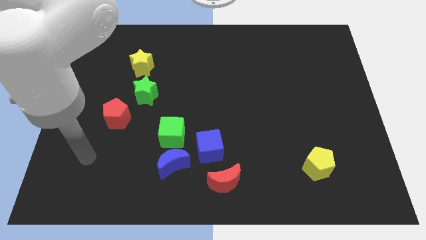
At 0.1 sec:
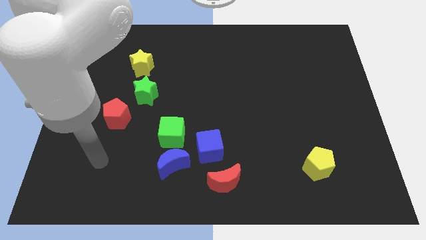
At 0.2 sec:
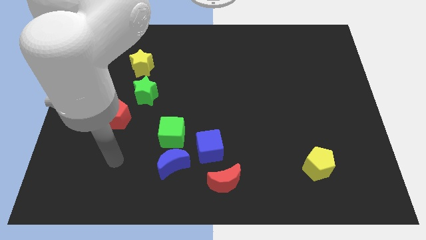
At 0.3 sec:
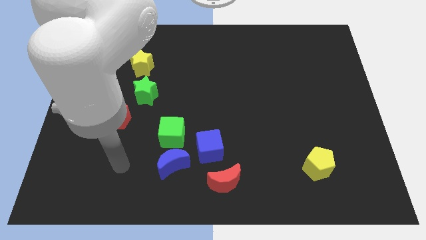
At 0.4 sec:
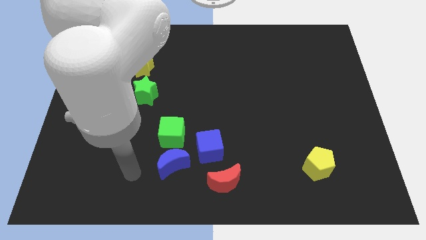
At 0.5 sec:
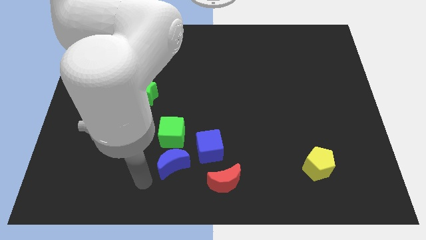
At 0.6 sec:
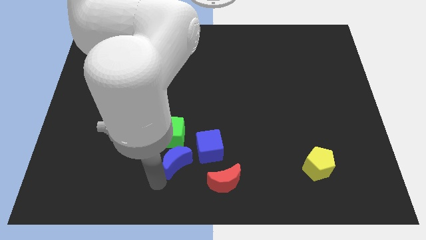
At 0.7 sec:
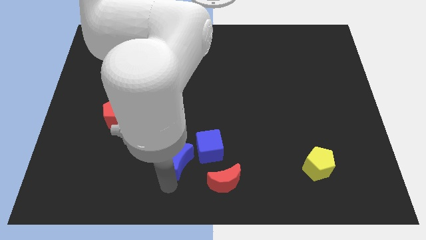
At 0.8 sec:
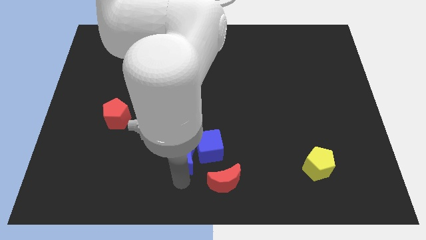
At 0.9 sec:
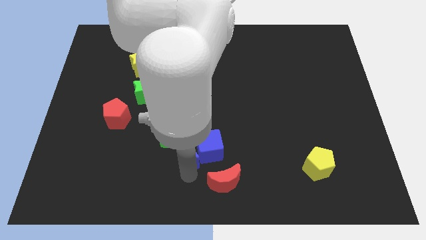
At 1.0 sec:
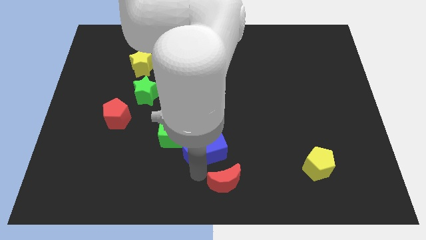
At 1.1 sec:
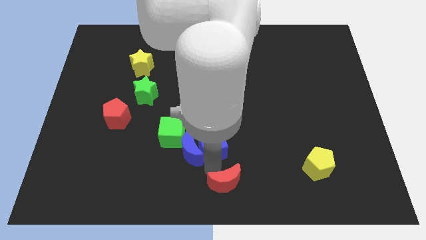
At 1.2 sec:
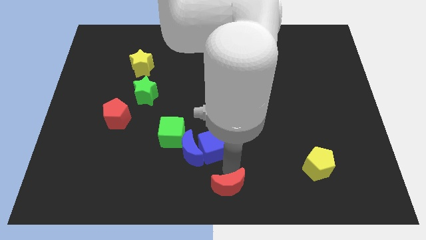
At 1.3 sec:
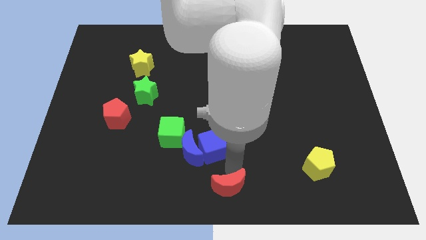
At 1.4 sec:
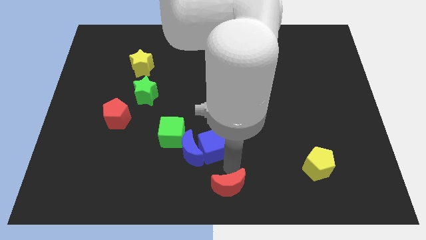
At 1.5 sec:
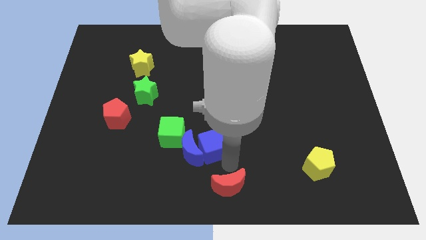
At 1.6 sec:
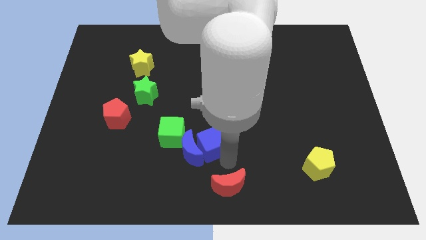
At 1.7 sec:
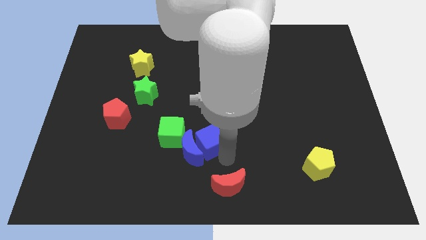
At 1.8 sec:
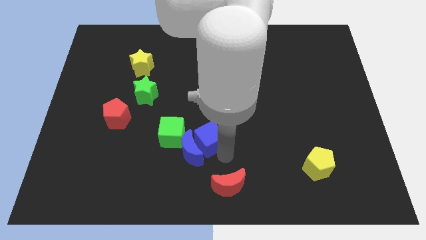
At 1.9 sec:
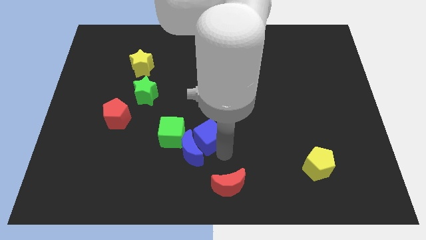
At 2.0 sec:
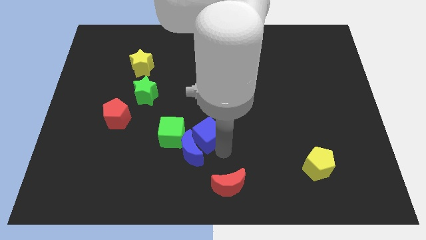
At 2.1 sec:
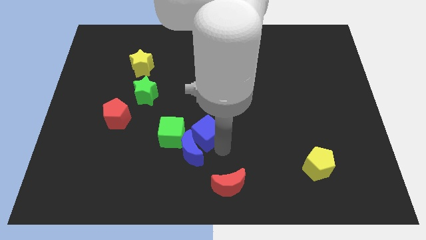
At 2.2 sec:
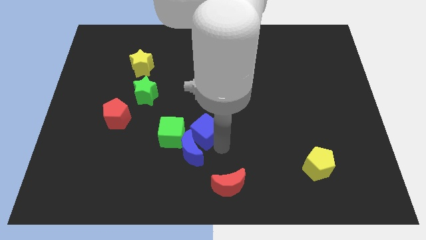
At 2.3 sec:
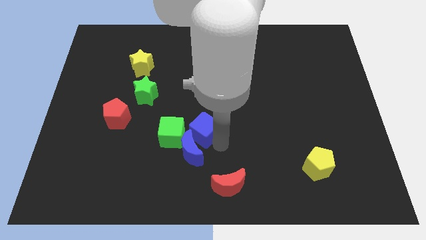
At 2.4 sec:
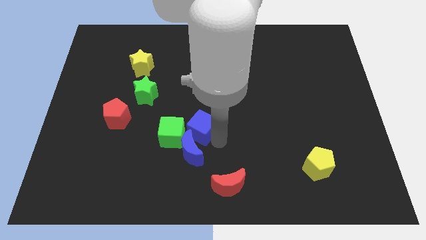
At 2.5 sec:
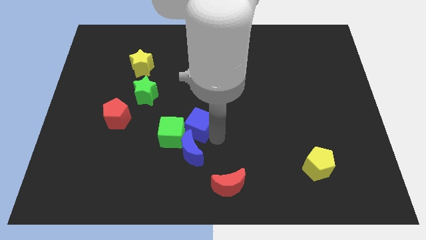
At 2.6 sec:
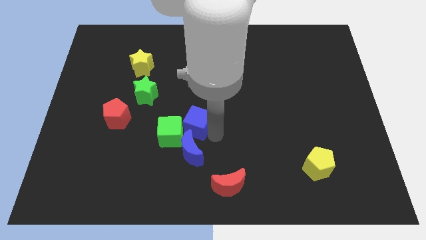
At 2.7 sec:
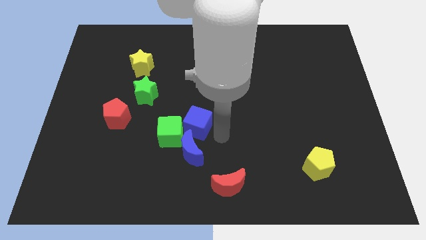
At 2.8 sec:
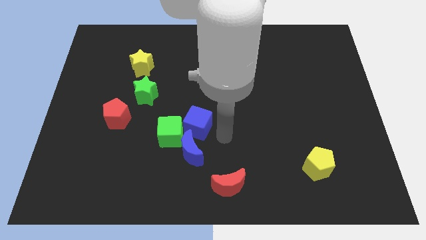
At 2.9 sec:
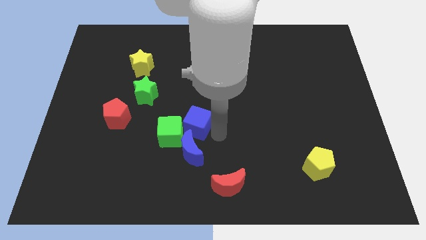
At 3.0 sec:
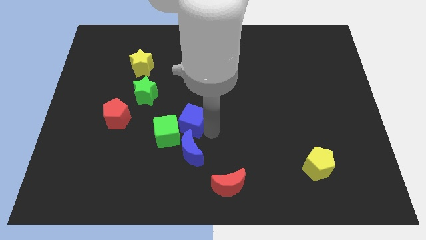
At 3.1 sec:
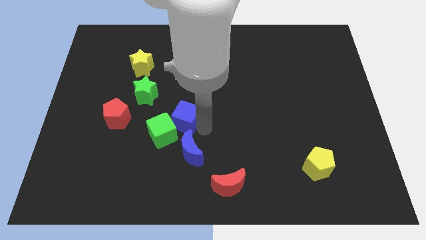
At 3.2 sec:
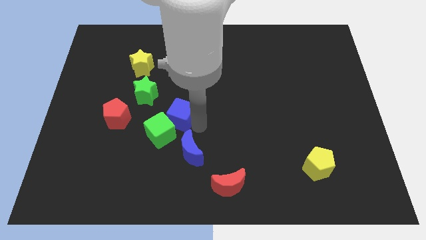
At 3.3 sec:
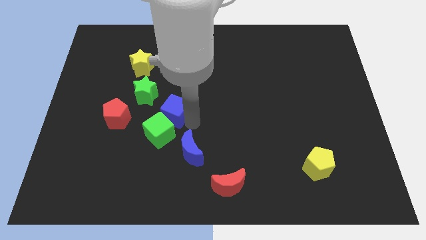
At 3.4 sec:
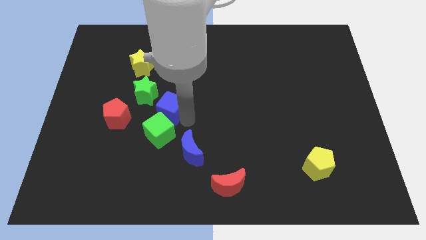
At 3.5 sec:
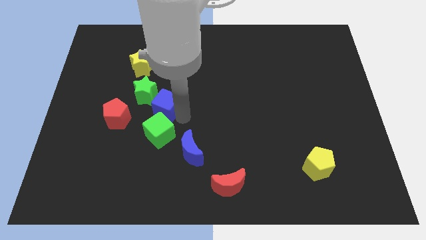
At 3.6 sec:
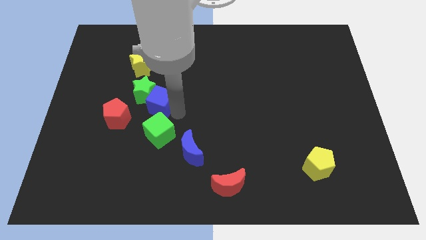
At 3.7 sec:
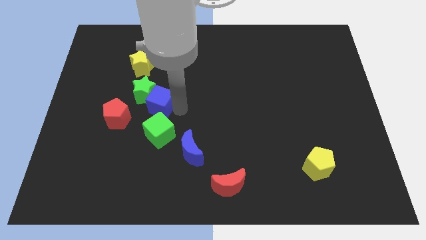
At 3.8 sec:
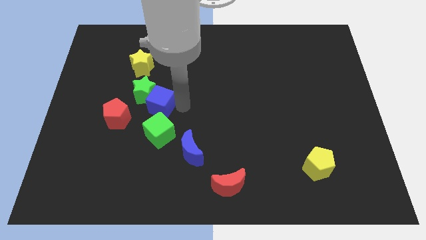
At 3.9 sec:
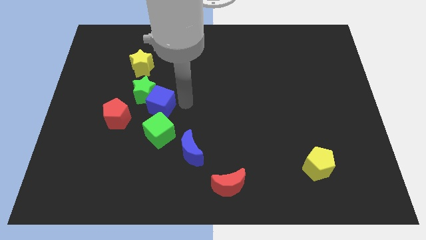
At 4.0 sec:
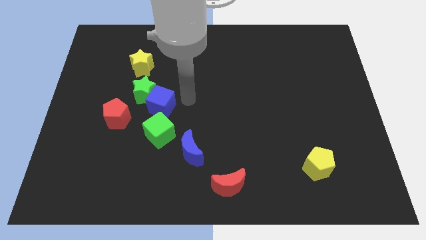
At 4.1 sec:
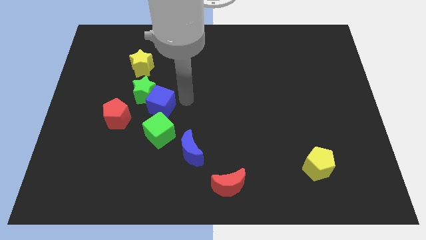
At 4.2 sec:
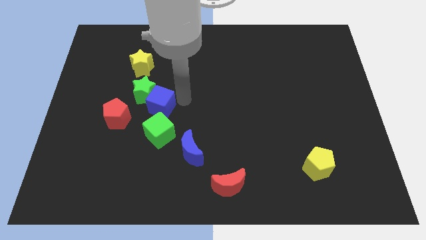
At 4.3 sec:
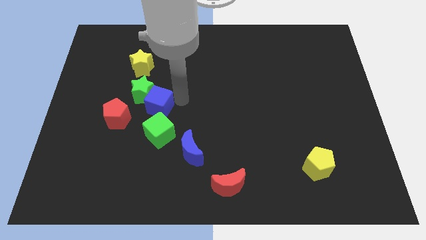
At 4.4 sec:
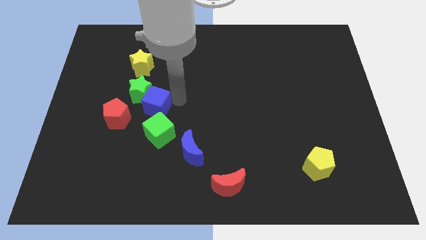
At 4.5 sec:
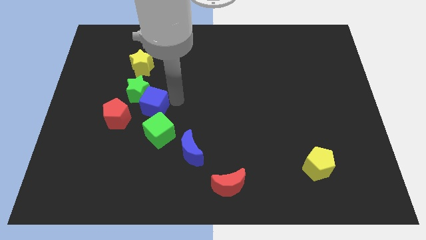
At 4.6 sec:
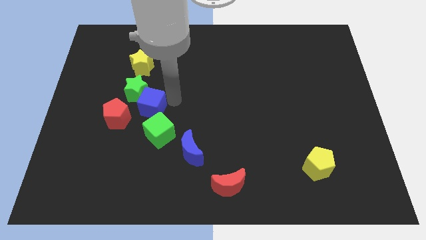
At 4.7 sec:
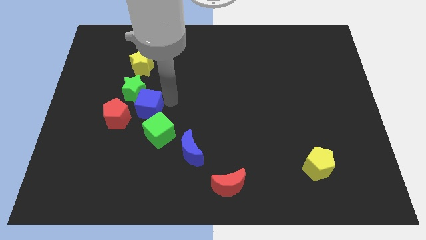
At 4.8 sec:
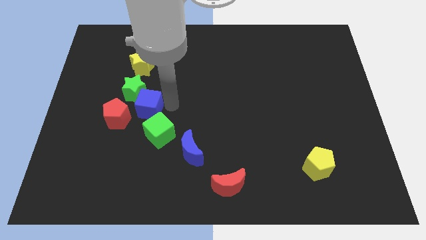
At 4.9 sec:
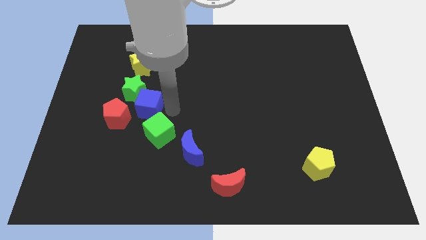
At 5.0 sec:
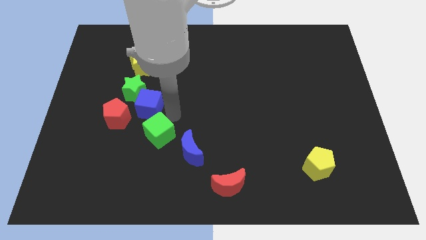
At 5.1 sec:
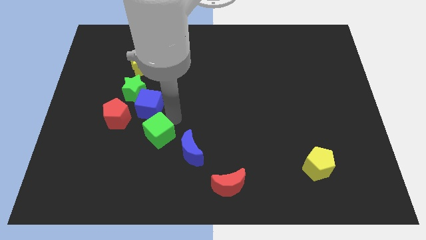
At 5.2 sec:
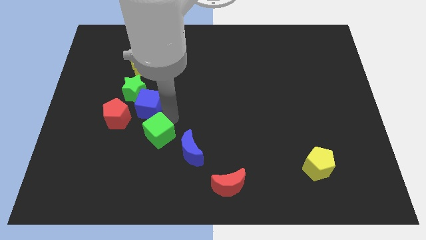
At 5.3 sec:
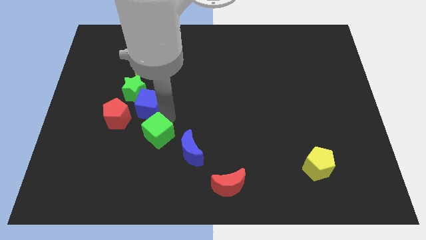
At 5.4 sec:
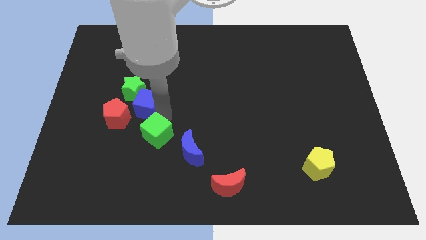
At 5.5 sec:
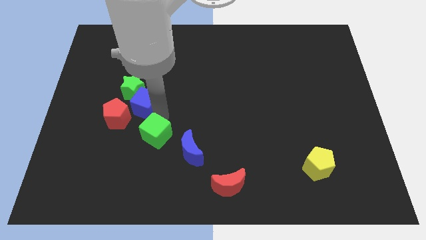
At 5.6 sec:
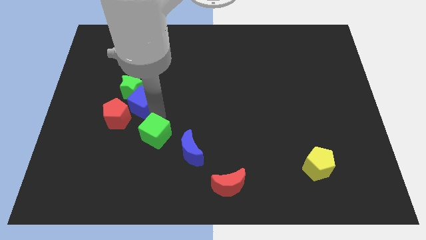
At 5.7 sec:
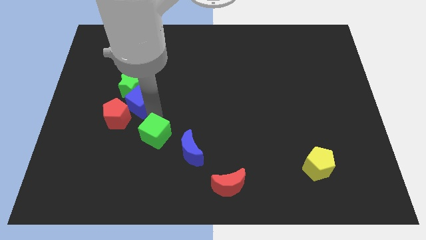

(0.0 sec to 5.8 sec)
slide the blue cube upwards and to the left diagonally

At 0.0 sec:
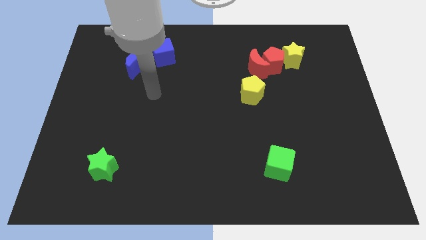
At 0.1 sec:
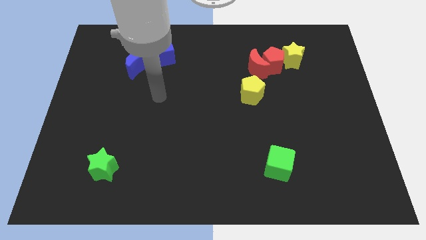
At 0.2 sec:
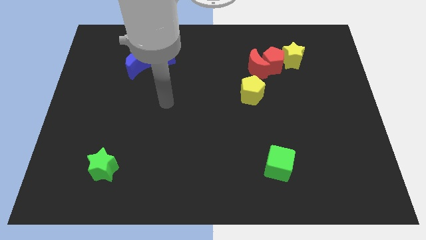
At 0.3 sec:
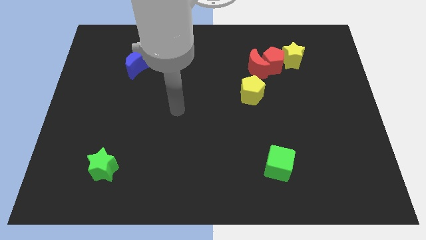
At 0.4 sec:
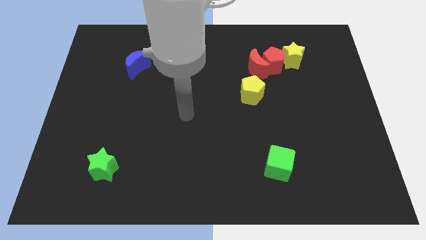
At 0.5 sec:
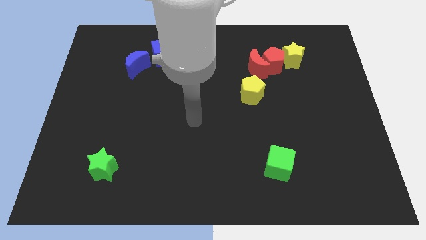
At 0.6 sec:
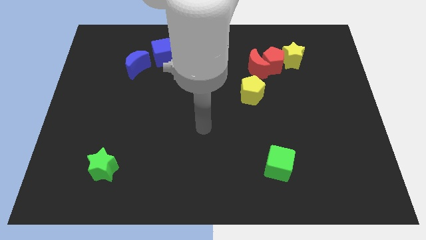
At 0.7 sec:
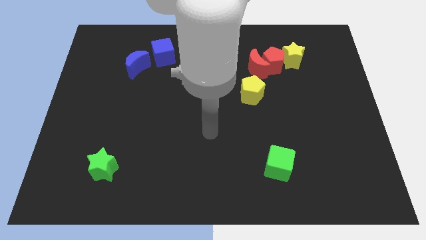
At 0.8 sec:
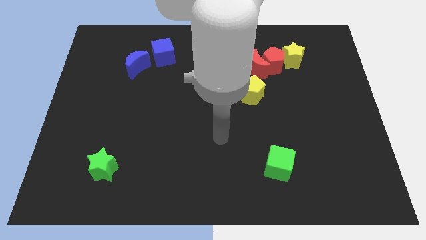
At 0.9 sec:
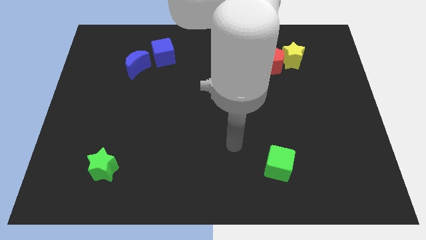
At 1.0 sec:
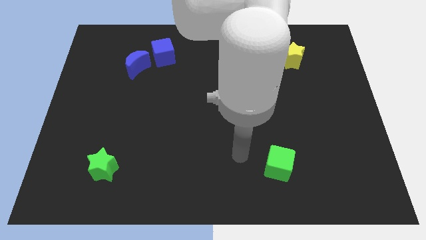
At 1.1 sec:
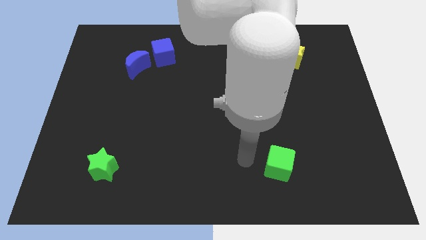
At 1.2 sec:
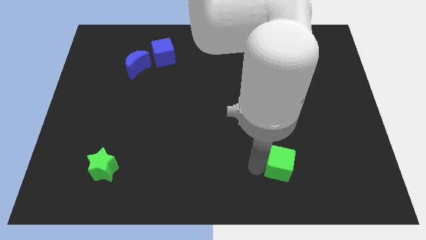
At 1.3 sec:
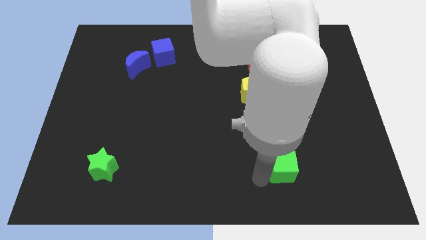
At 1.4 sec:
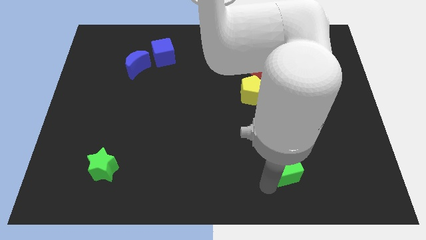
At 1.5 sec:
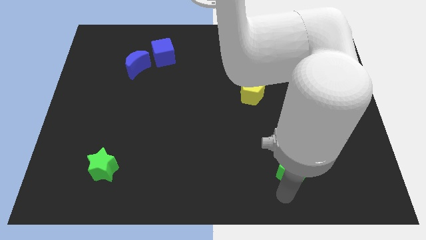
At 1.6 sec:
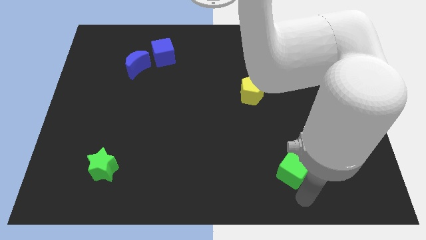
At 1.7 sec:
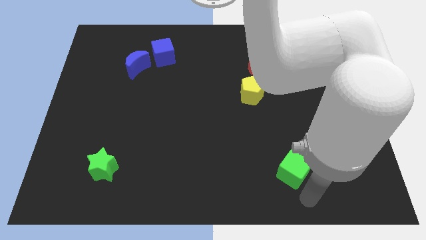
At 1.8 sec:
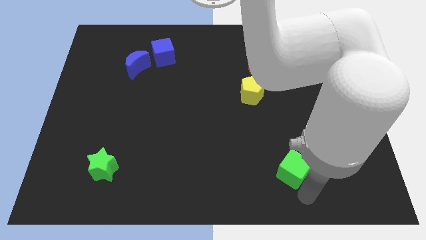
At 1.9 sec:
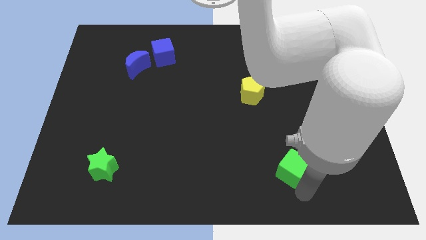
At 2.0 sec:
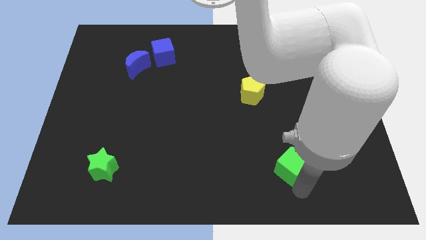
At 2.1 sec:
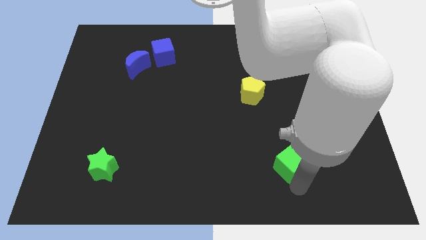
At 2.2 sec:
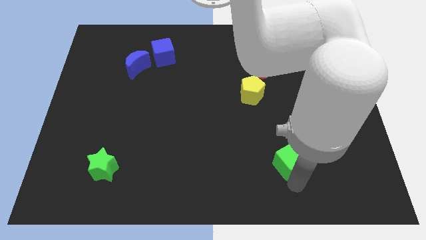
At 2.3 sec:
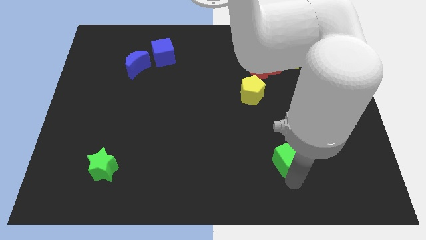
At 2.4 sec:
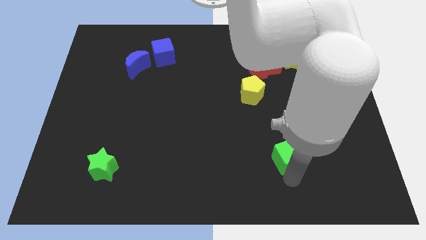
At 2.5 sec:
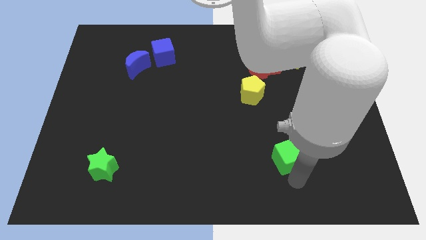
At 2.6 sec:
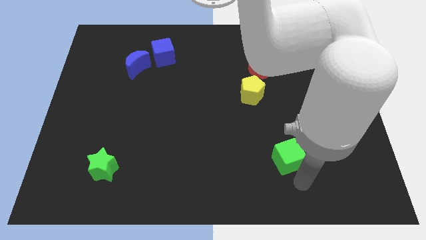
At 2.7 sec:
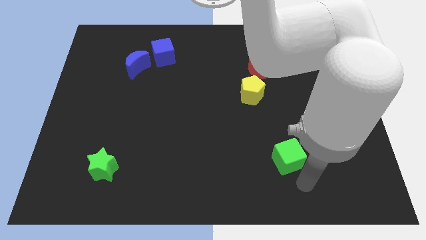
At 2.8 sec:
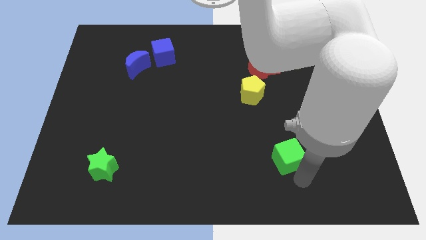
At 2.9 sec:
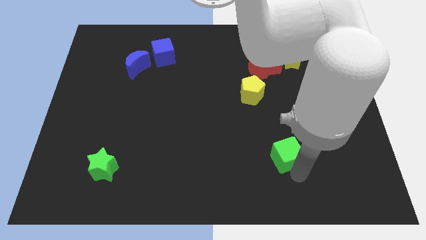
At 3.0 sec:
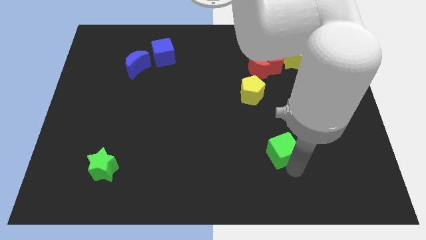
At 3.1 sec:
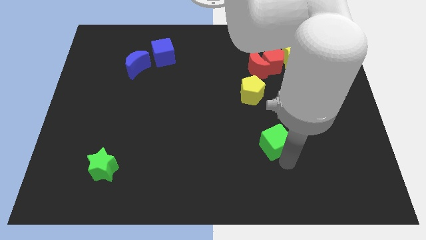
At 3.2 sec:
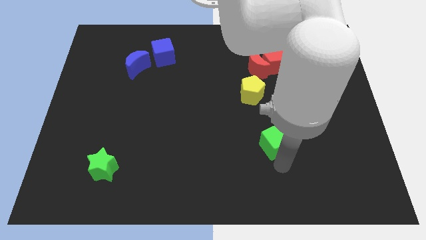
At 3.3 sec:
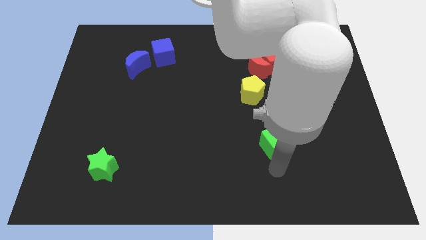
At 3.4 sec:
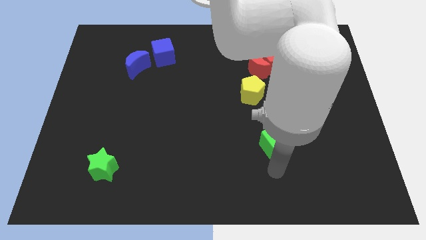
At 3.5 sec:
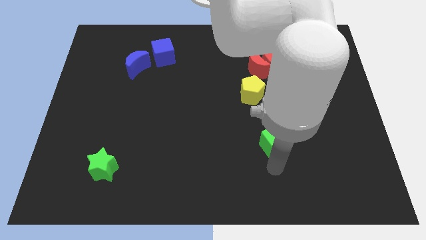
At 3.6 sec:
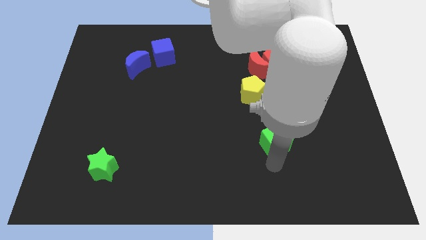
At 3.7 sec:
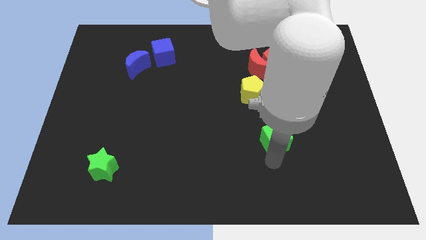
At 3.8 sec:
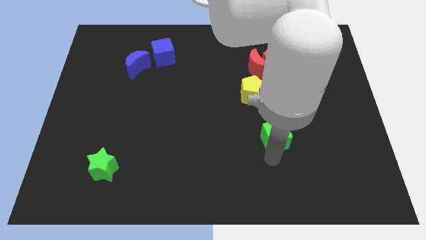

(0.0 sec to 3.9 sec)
slightly slide the green cube up
